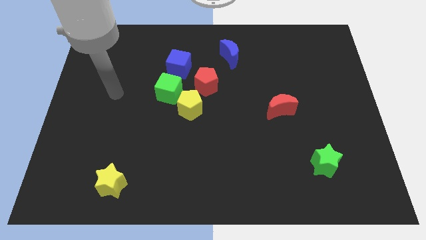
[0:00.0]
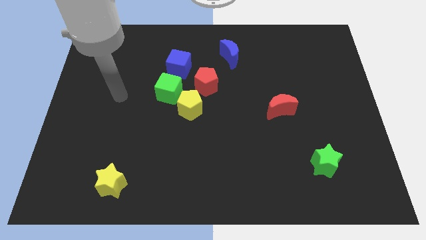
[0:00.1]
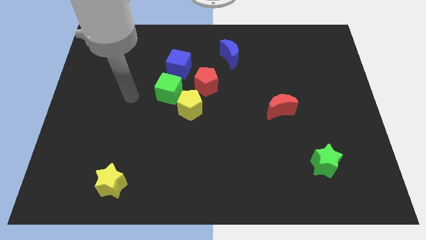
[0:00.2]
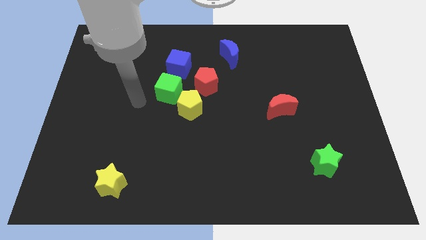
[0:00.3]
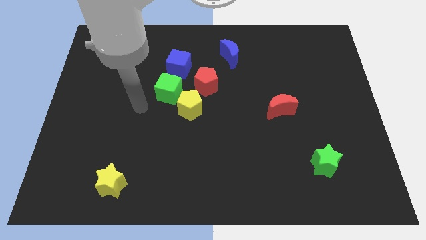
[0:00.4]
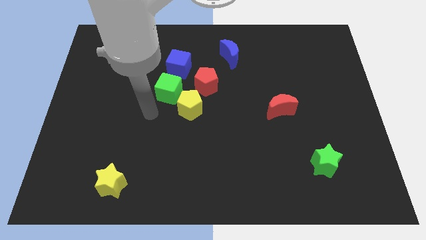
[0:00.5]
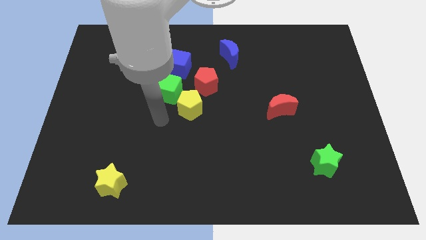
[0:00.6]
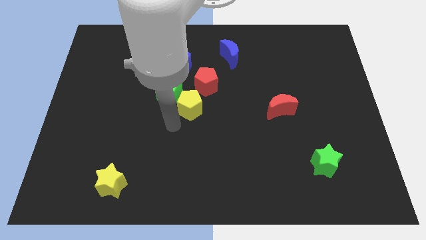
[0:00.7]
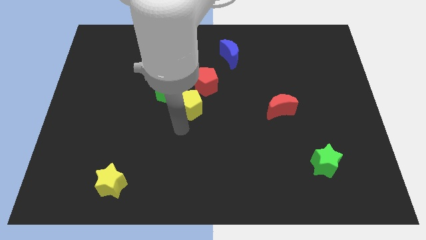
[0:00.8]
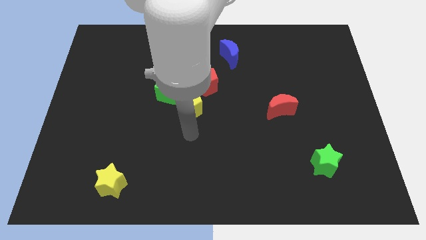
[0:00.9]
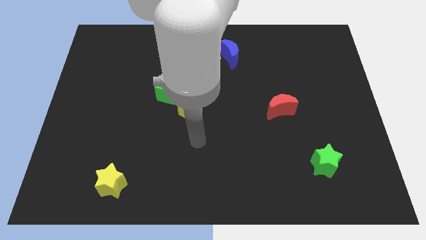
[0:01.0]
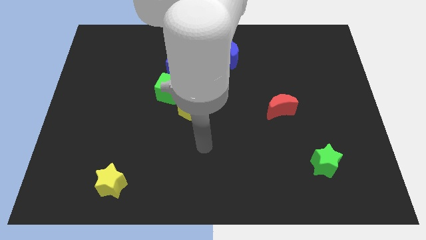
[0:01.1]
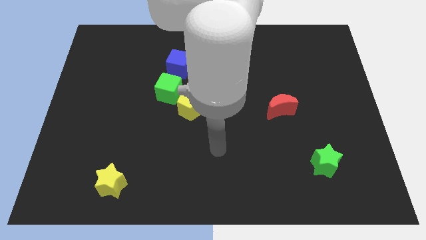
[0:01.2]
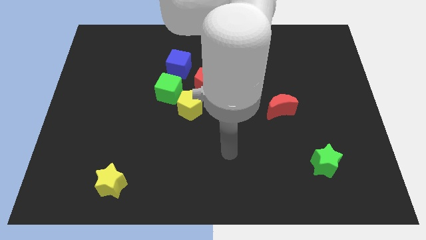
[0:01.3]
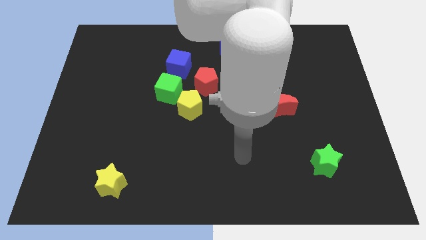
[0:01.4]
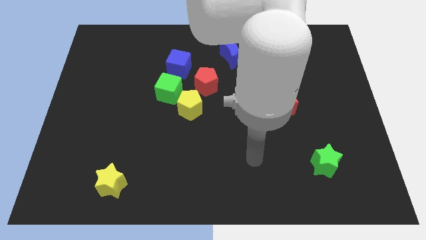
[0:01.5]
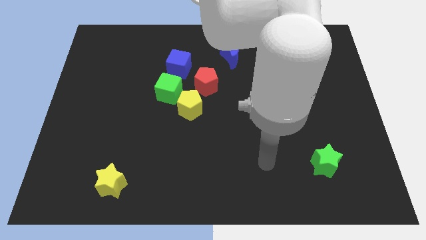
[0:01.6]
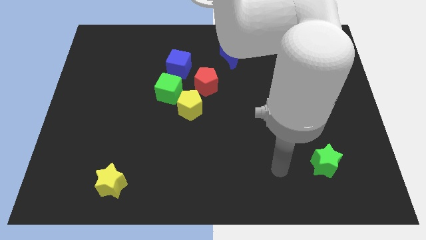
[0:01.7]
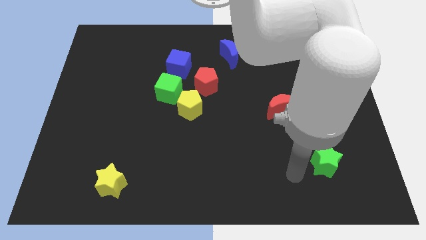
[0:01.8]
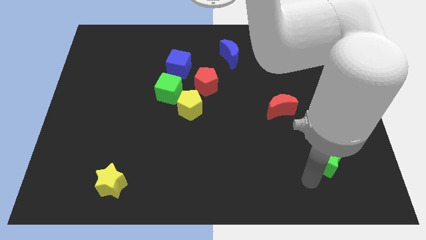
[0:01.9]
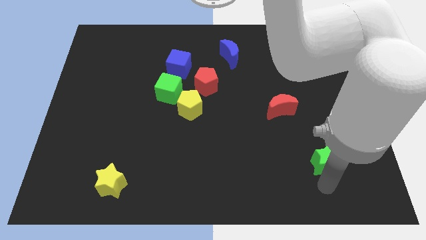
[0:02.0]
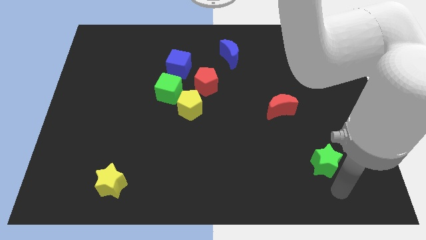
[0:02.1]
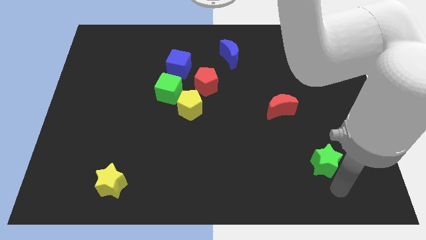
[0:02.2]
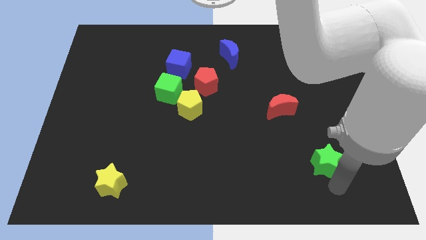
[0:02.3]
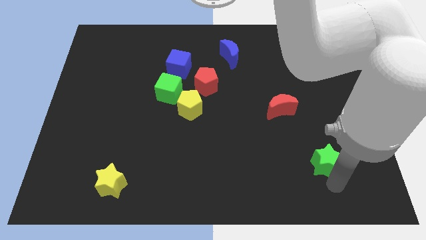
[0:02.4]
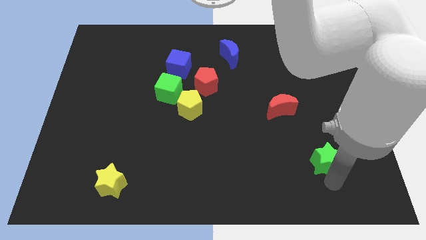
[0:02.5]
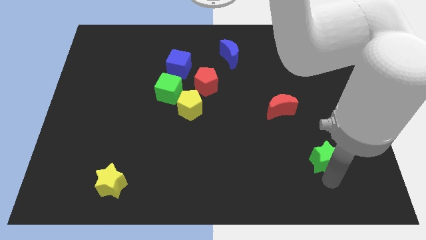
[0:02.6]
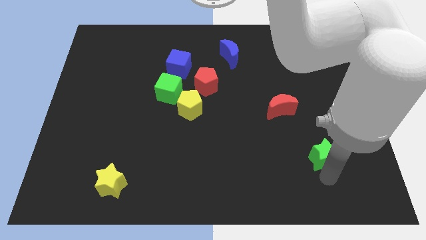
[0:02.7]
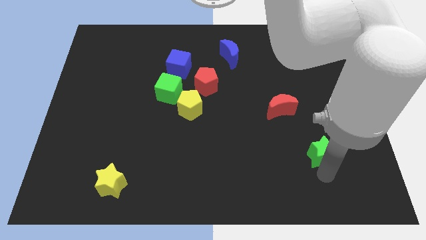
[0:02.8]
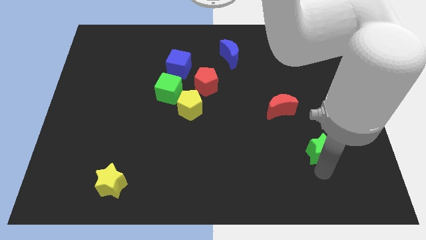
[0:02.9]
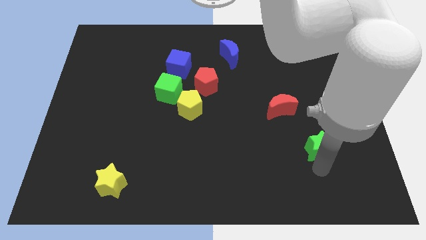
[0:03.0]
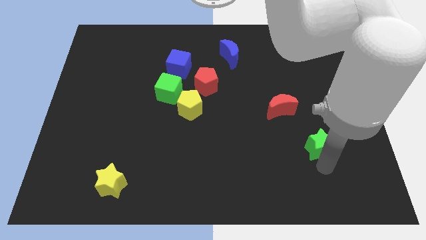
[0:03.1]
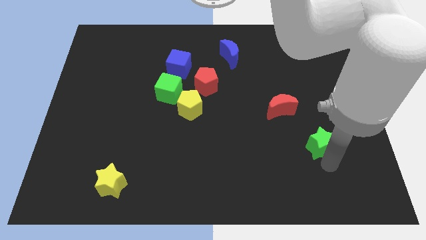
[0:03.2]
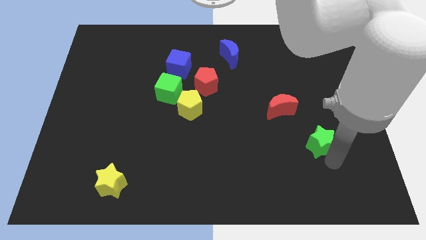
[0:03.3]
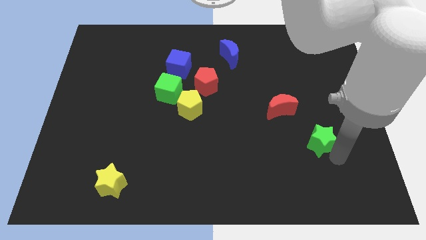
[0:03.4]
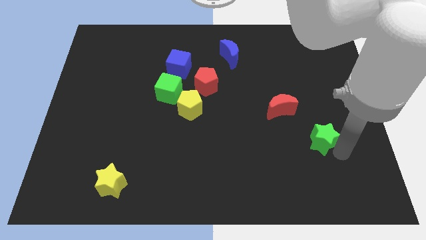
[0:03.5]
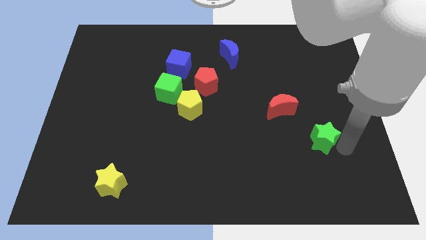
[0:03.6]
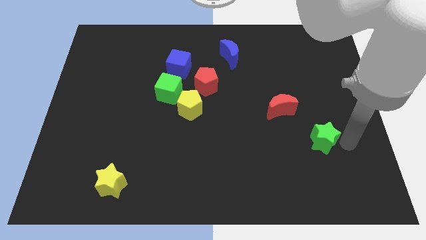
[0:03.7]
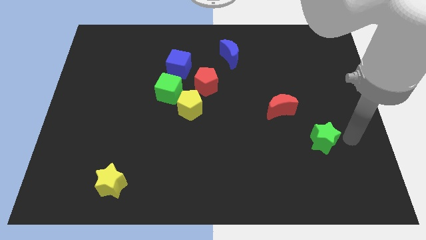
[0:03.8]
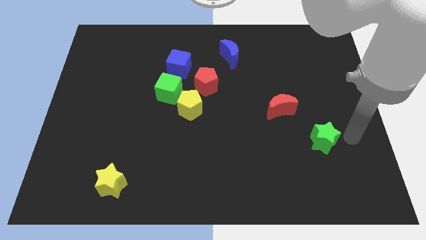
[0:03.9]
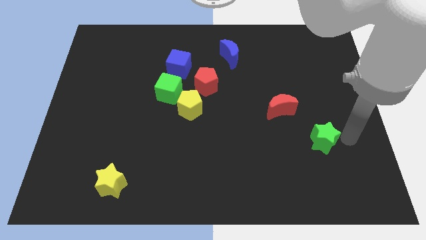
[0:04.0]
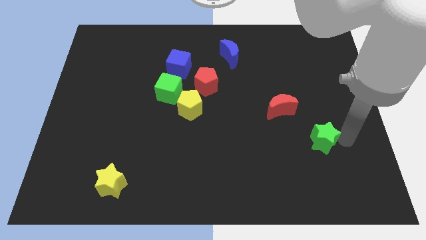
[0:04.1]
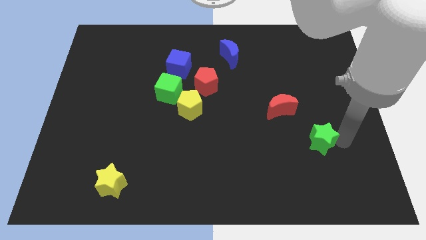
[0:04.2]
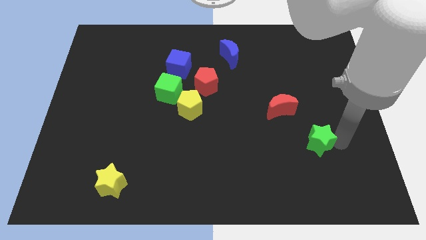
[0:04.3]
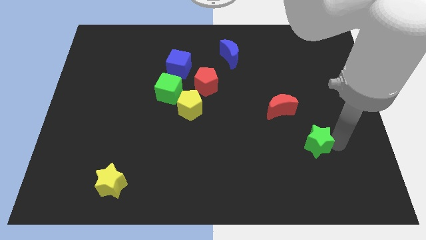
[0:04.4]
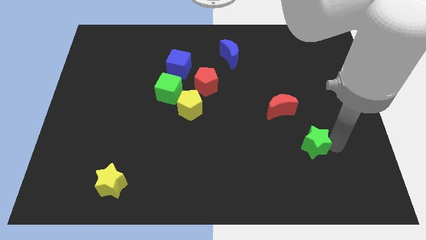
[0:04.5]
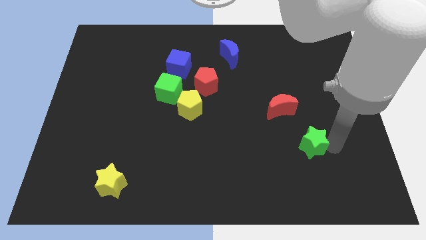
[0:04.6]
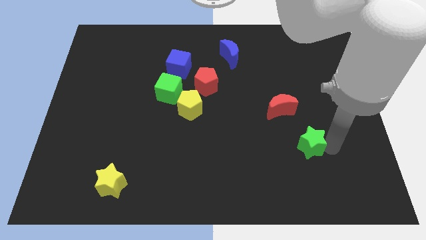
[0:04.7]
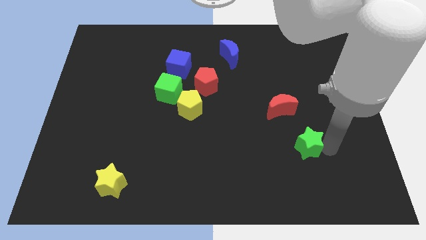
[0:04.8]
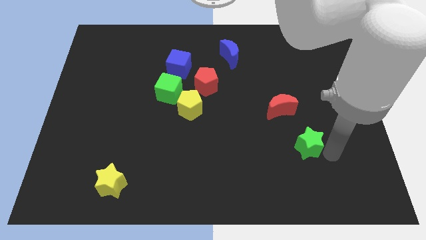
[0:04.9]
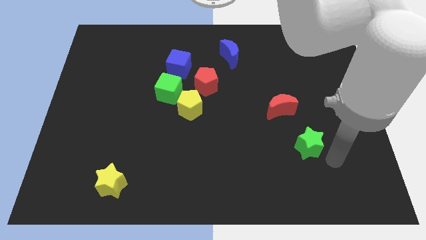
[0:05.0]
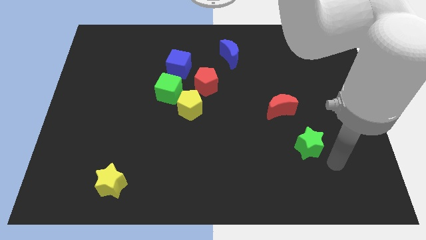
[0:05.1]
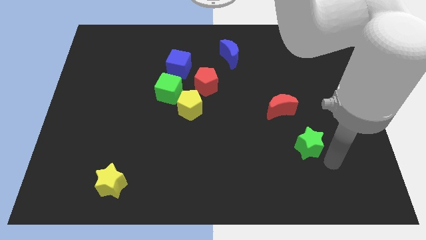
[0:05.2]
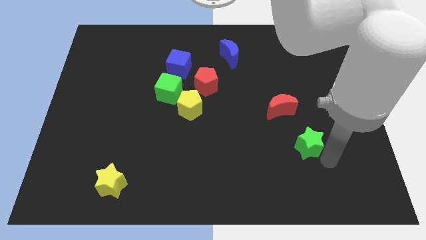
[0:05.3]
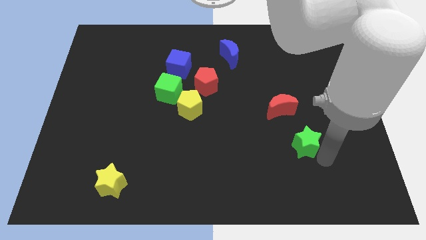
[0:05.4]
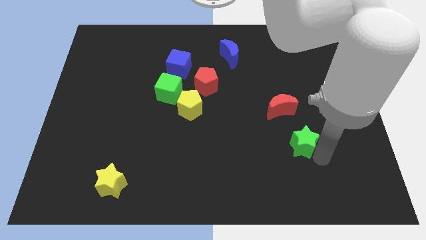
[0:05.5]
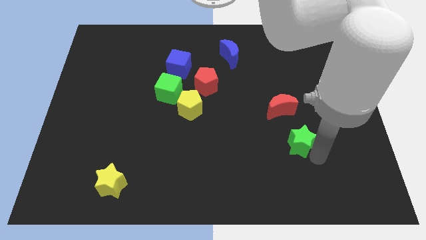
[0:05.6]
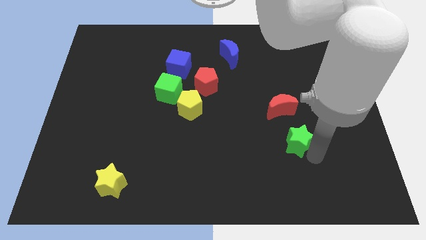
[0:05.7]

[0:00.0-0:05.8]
move the green star a little upwards and to the left

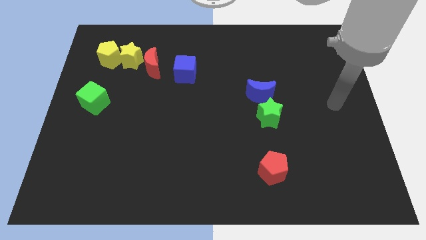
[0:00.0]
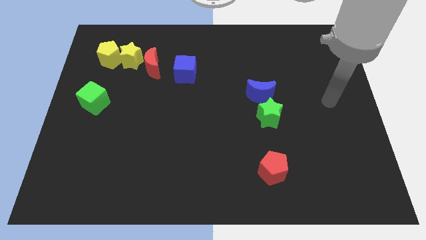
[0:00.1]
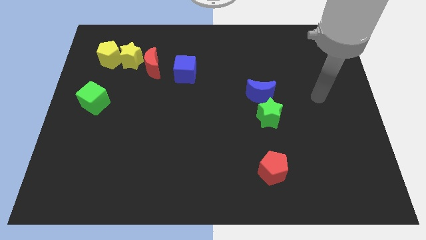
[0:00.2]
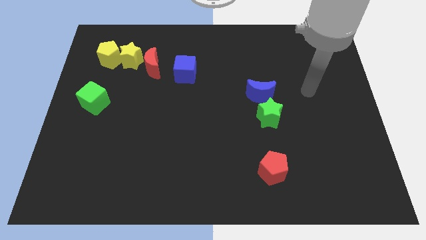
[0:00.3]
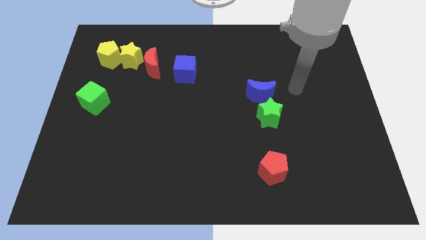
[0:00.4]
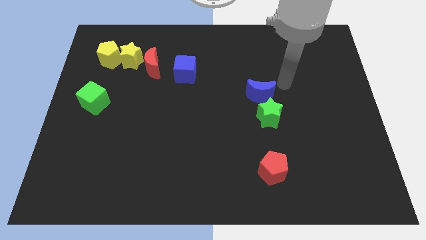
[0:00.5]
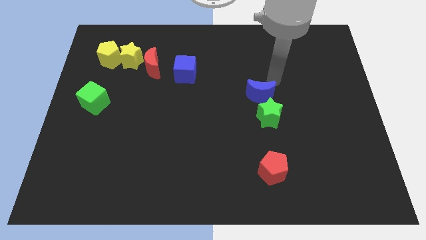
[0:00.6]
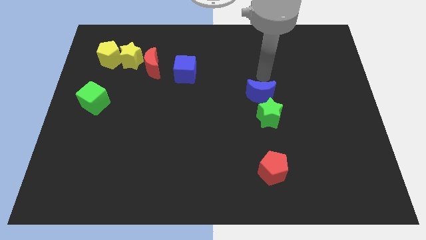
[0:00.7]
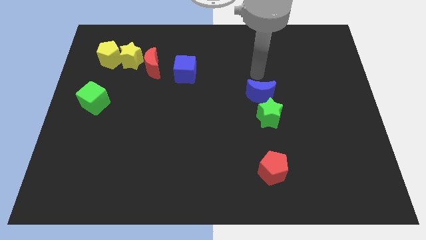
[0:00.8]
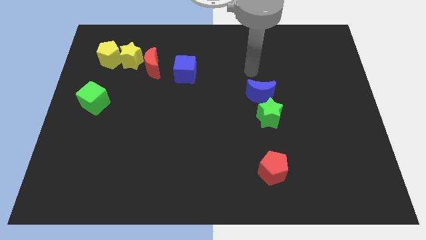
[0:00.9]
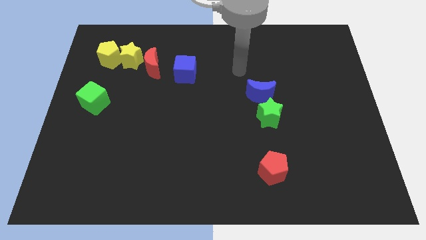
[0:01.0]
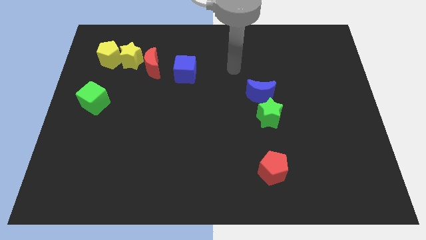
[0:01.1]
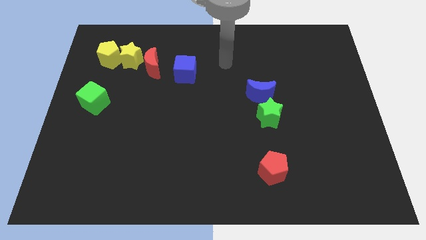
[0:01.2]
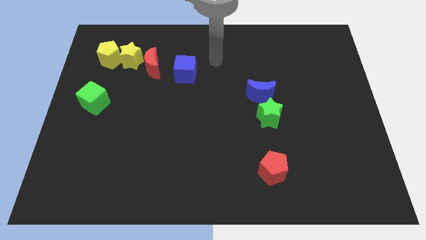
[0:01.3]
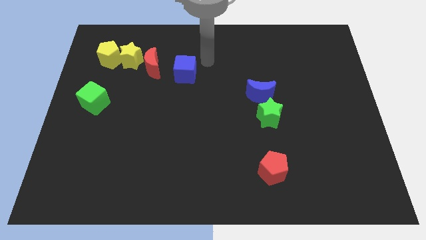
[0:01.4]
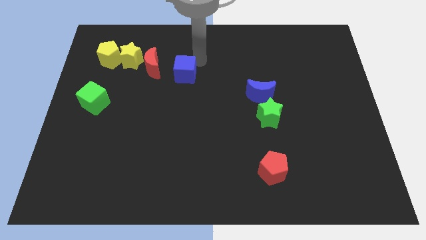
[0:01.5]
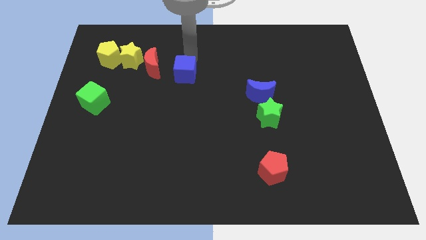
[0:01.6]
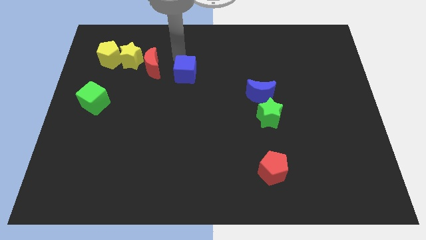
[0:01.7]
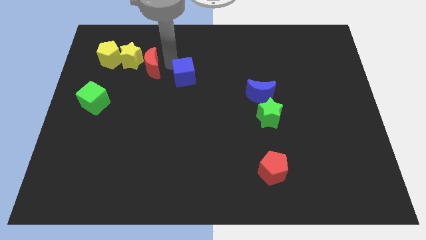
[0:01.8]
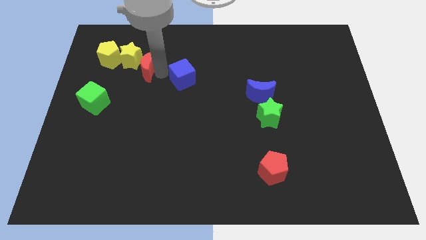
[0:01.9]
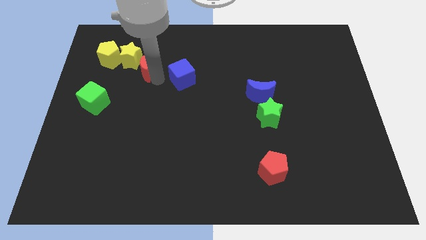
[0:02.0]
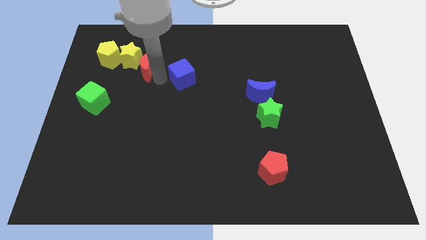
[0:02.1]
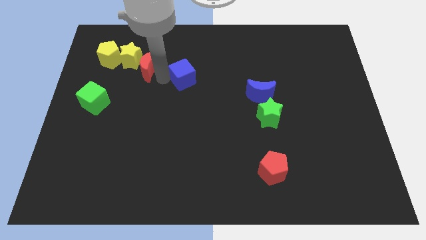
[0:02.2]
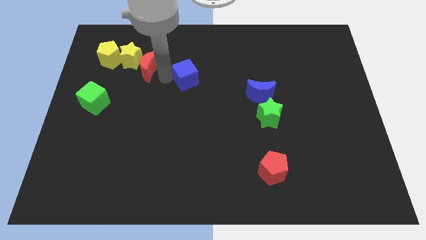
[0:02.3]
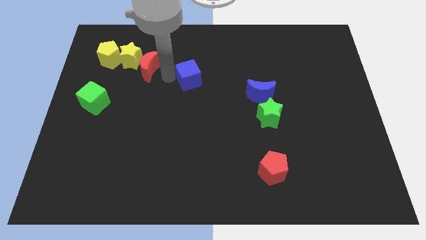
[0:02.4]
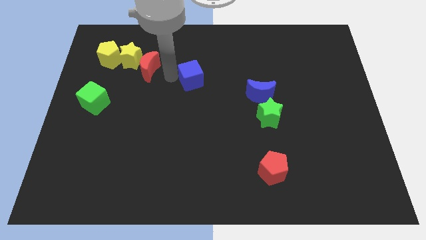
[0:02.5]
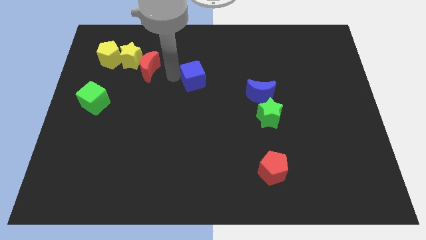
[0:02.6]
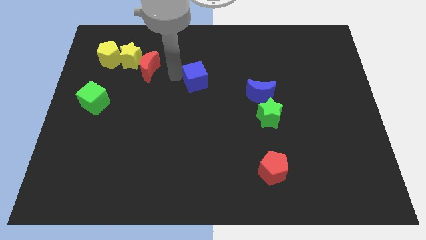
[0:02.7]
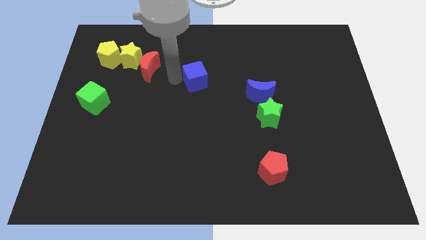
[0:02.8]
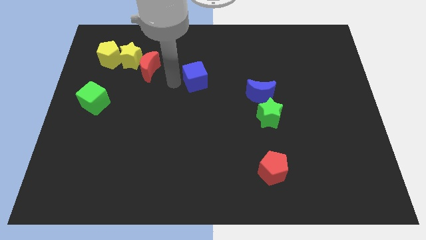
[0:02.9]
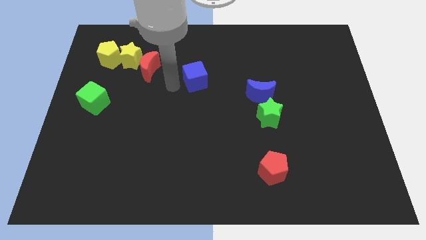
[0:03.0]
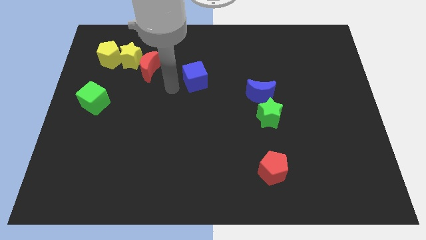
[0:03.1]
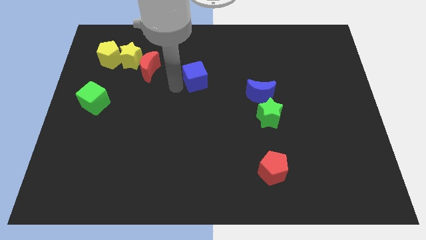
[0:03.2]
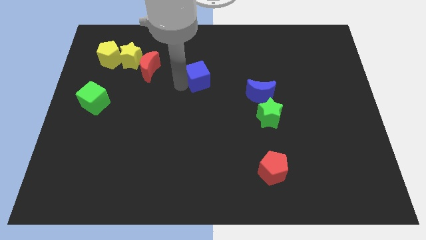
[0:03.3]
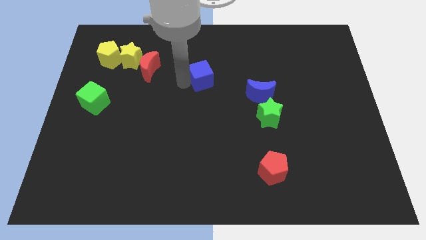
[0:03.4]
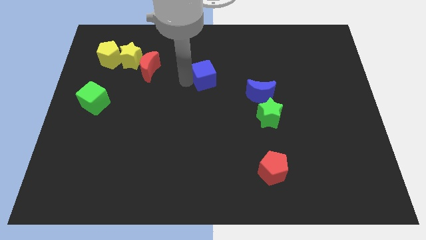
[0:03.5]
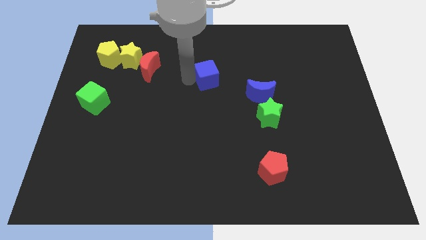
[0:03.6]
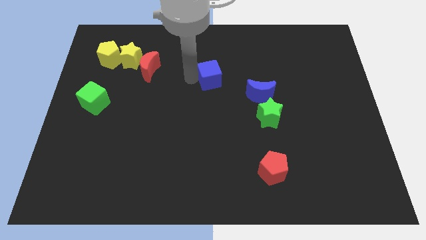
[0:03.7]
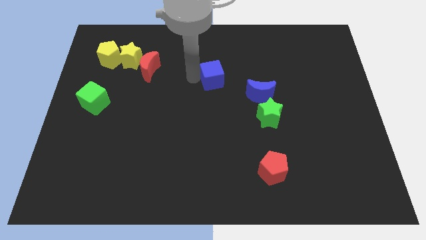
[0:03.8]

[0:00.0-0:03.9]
push the blue cube right somewhat
